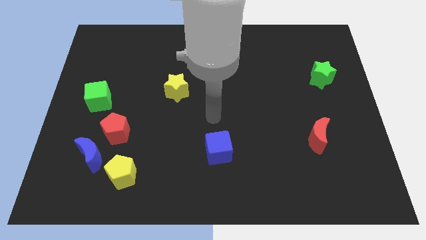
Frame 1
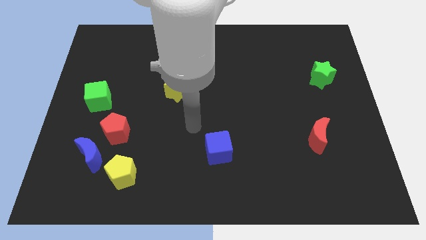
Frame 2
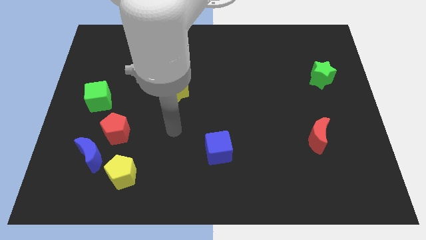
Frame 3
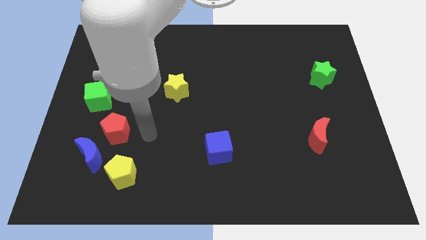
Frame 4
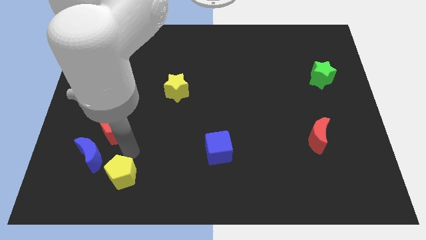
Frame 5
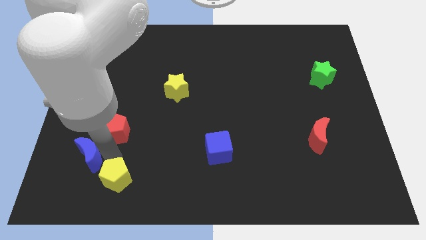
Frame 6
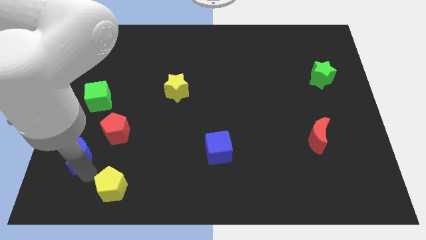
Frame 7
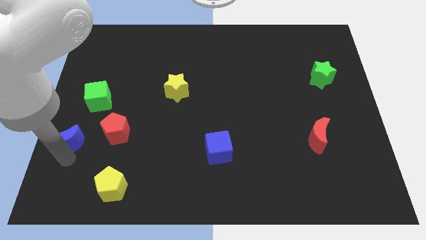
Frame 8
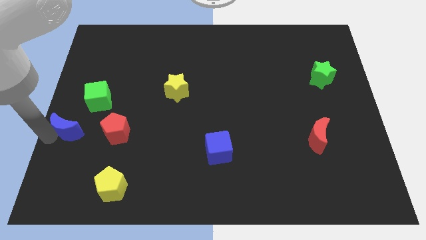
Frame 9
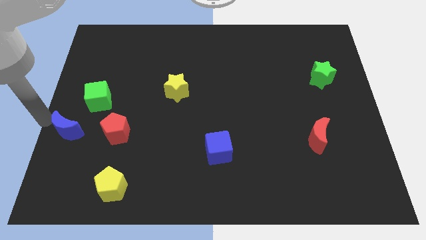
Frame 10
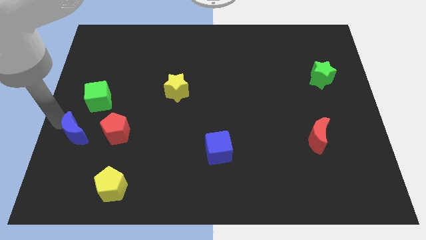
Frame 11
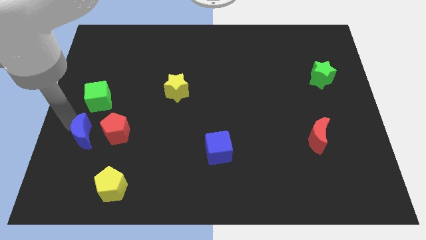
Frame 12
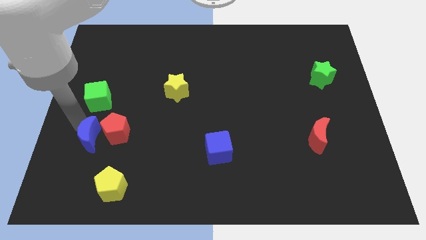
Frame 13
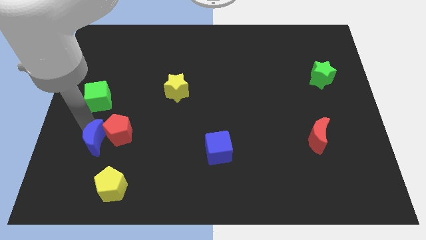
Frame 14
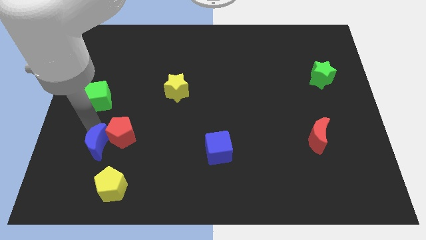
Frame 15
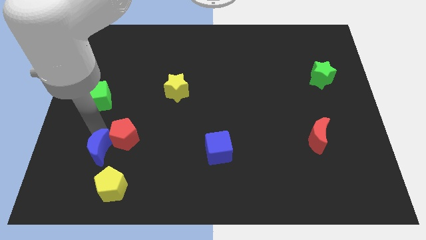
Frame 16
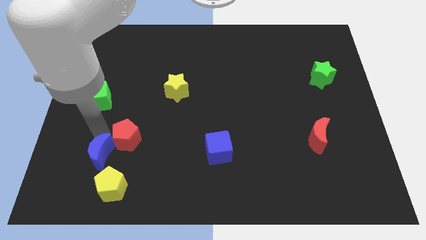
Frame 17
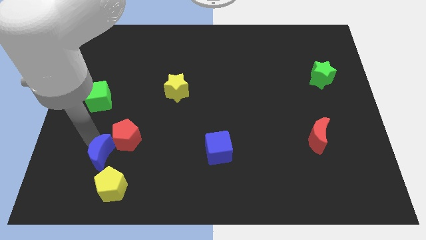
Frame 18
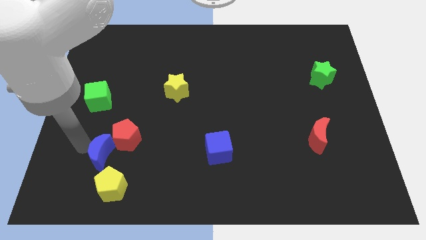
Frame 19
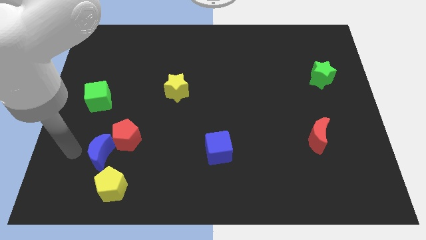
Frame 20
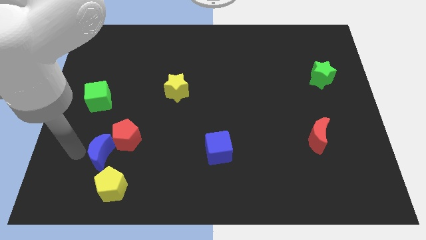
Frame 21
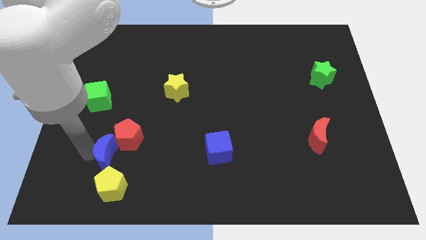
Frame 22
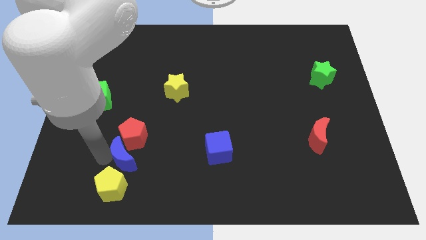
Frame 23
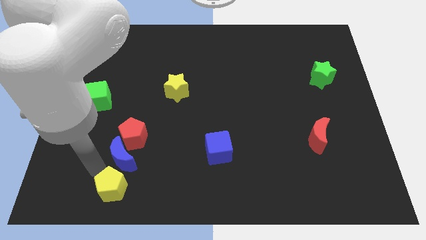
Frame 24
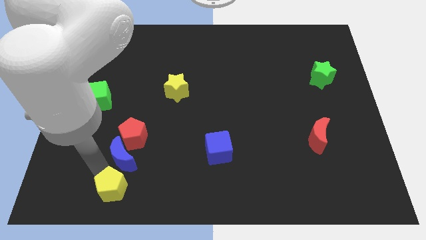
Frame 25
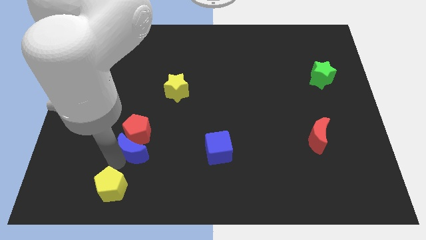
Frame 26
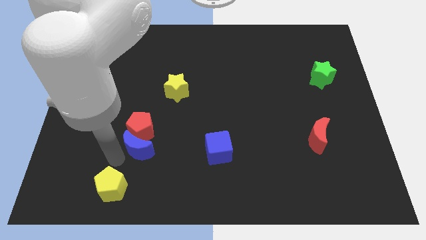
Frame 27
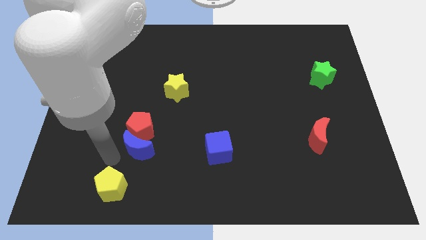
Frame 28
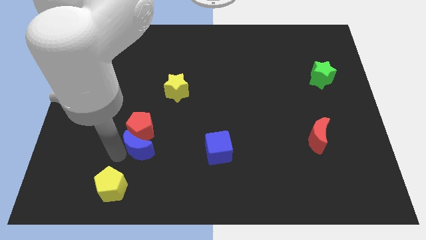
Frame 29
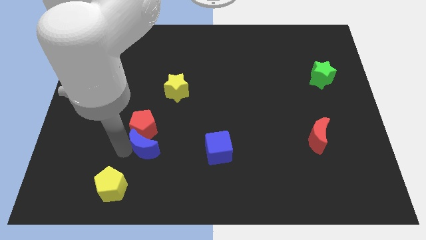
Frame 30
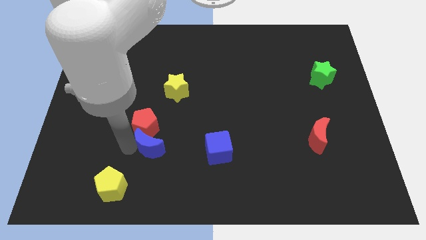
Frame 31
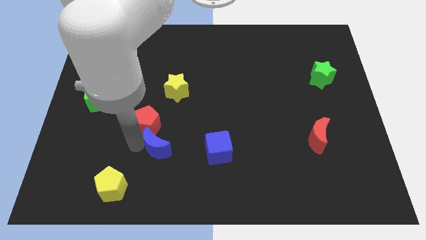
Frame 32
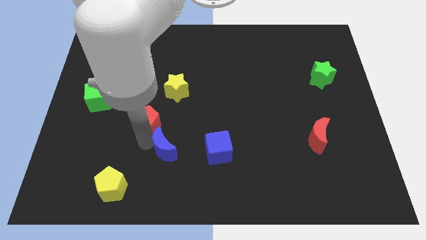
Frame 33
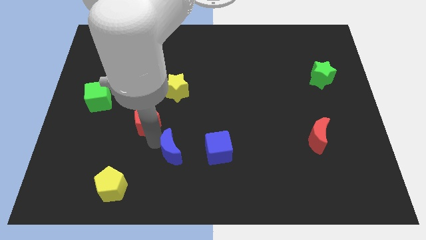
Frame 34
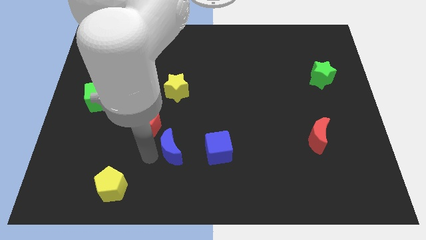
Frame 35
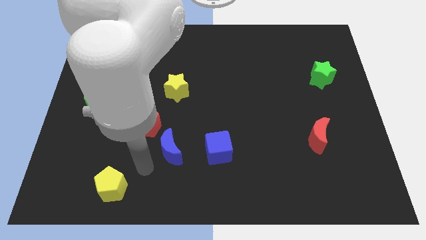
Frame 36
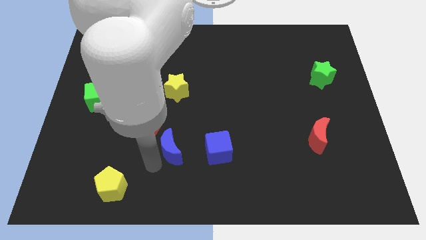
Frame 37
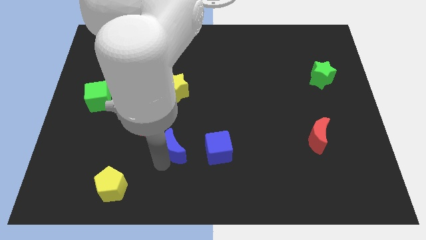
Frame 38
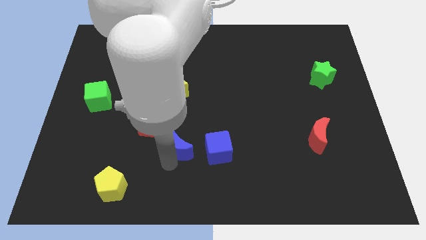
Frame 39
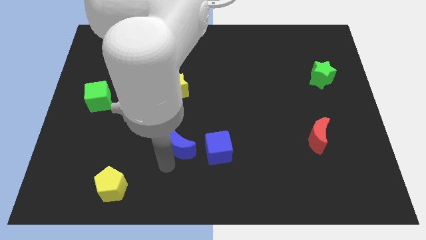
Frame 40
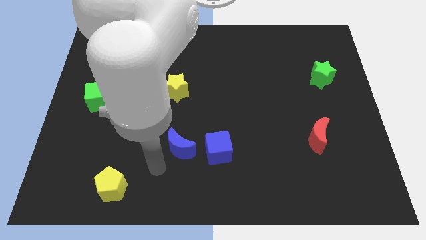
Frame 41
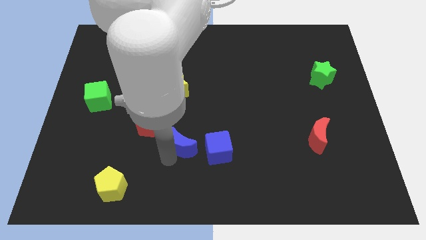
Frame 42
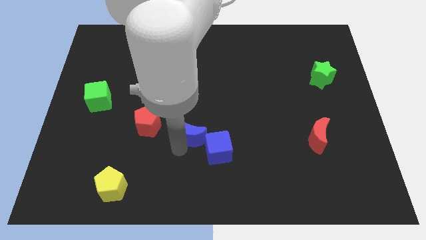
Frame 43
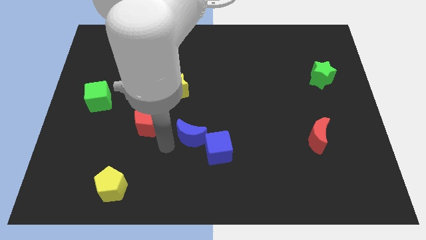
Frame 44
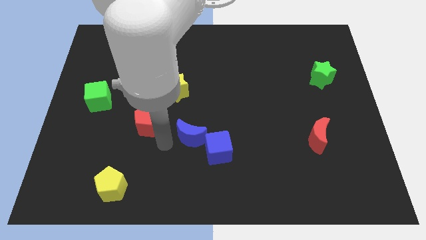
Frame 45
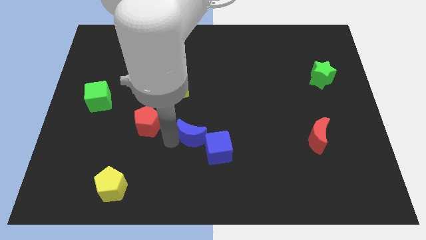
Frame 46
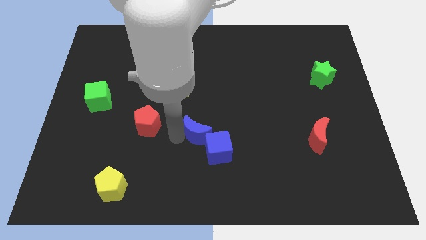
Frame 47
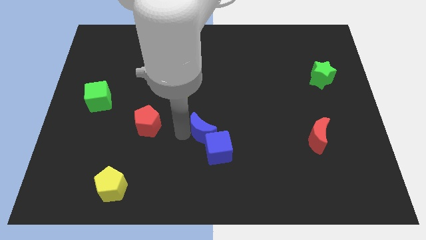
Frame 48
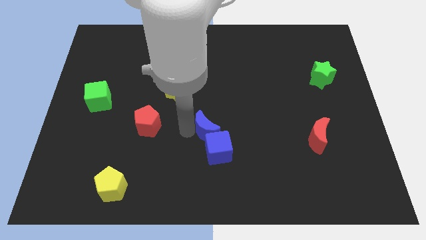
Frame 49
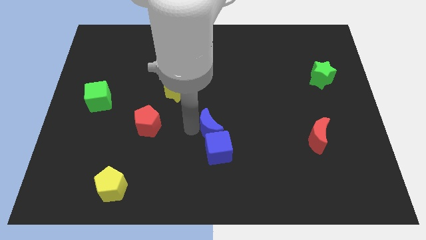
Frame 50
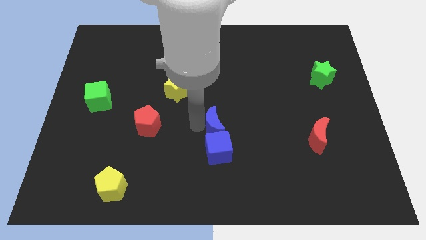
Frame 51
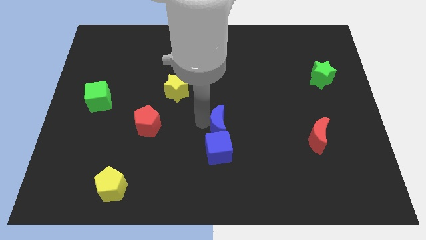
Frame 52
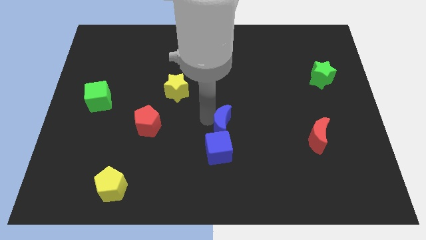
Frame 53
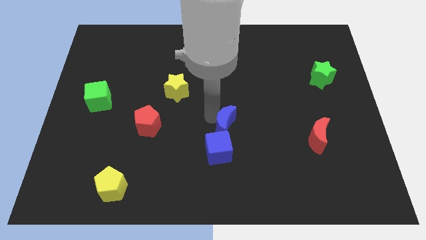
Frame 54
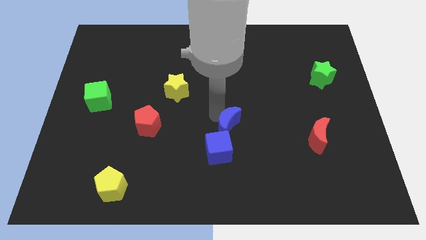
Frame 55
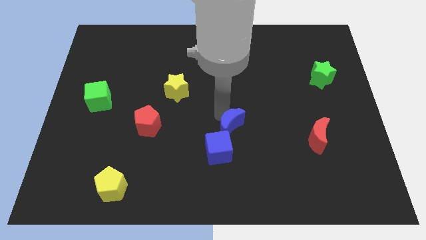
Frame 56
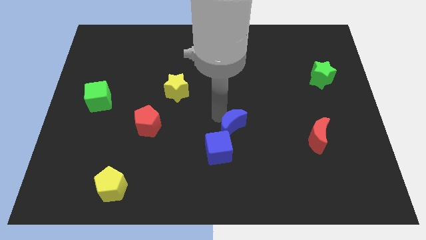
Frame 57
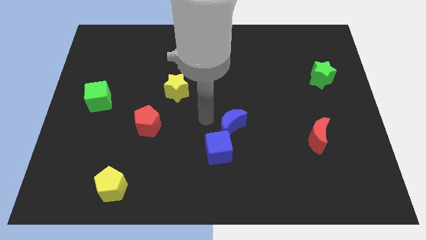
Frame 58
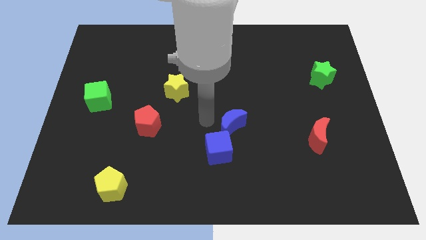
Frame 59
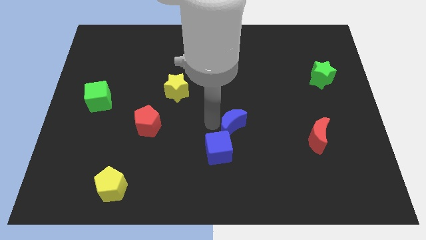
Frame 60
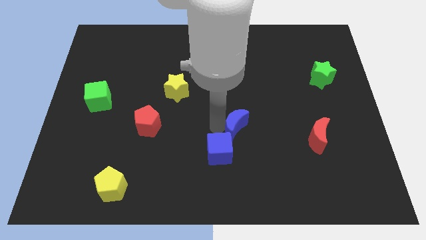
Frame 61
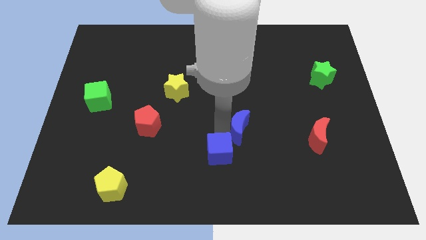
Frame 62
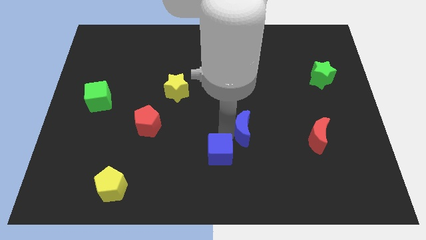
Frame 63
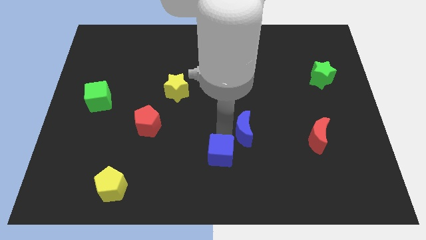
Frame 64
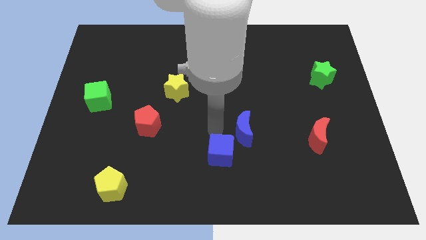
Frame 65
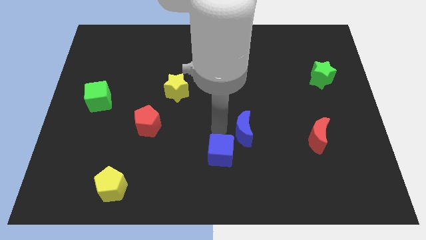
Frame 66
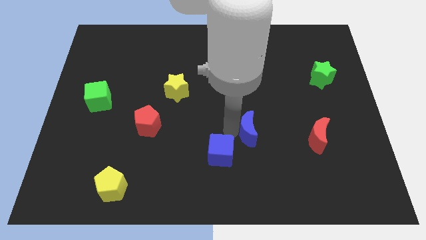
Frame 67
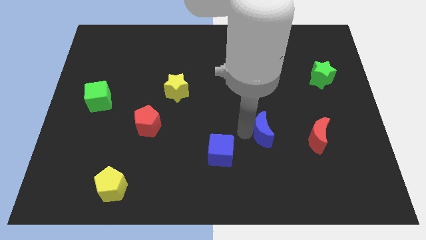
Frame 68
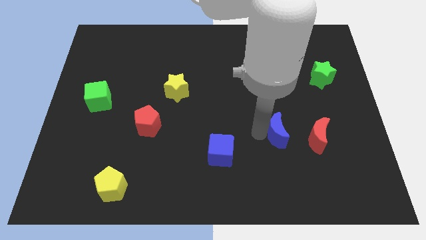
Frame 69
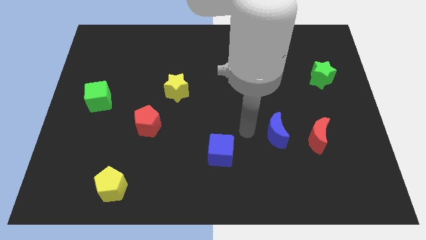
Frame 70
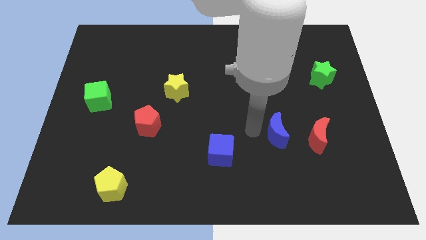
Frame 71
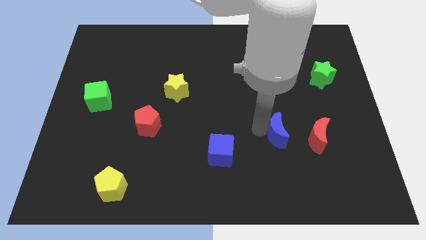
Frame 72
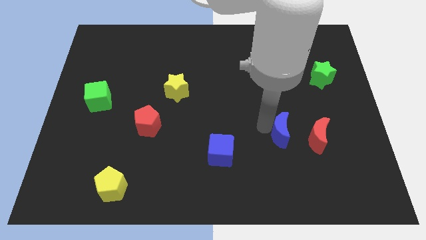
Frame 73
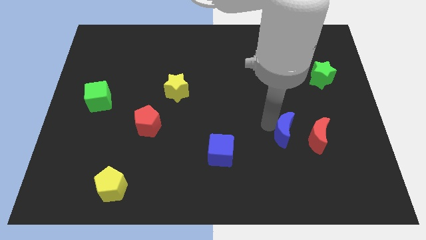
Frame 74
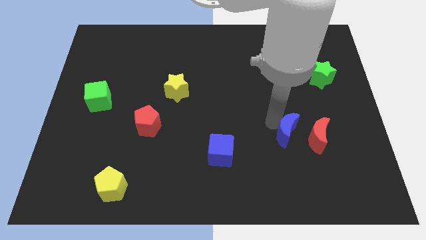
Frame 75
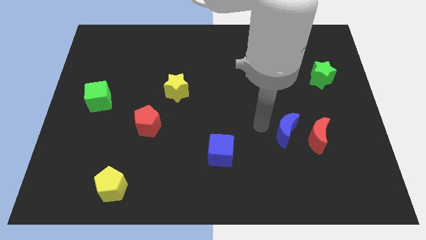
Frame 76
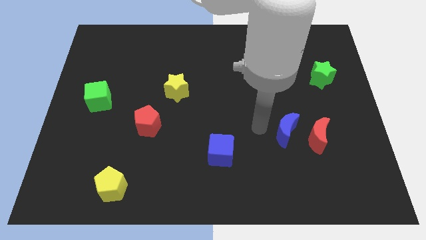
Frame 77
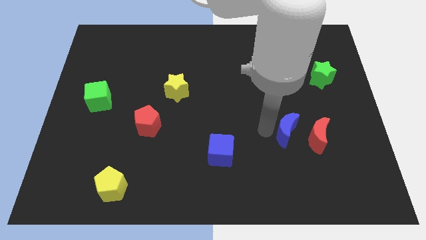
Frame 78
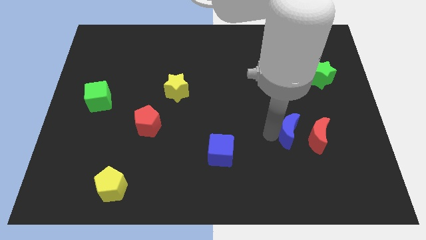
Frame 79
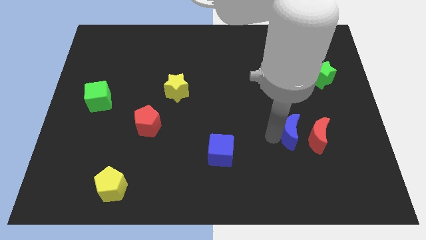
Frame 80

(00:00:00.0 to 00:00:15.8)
slide the blue moon towards the red moon

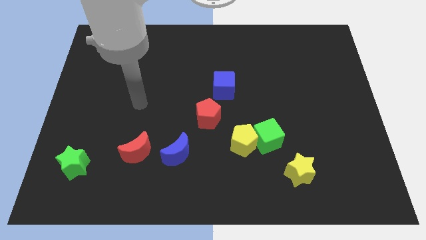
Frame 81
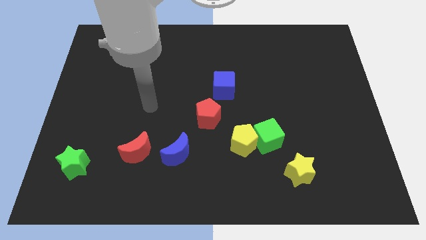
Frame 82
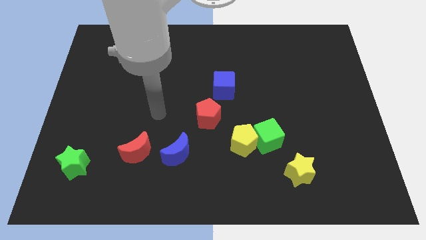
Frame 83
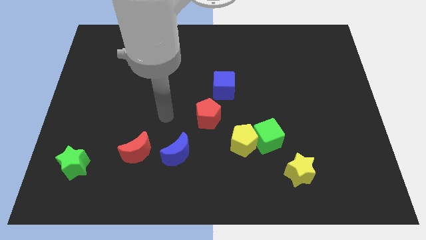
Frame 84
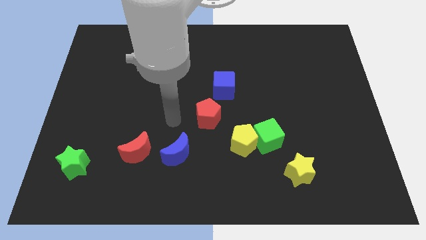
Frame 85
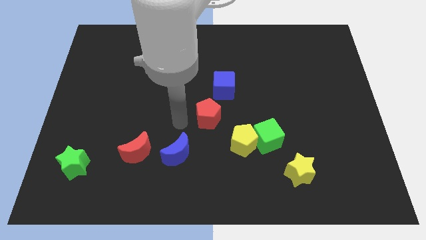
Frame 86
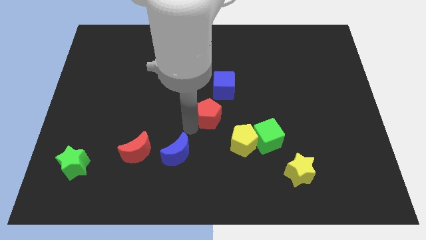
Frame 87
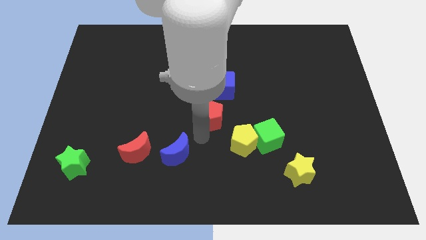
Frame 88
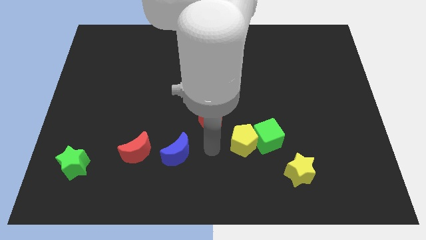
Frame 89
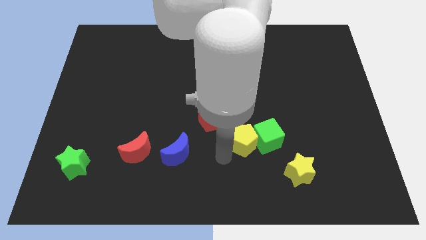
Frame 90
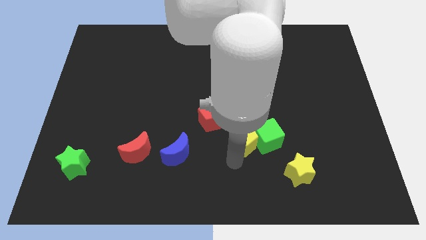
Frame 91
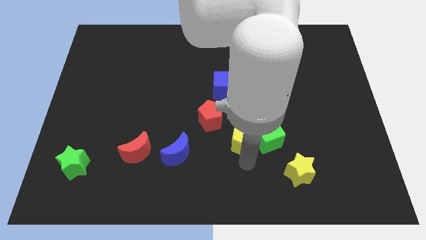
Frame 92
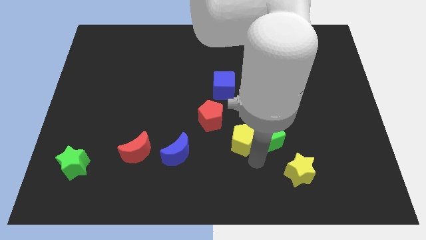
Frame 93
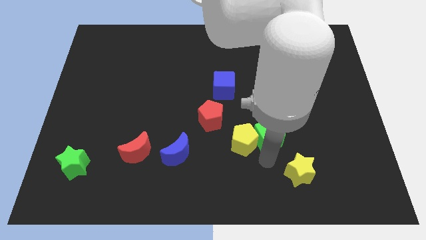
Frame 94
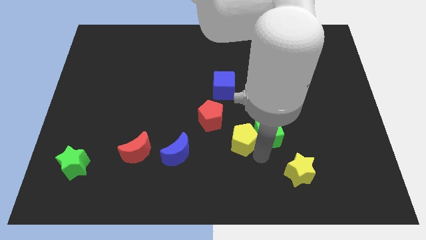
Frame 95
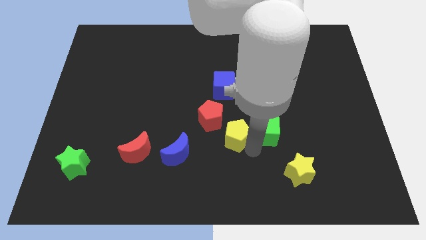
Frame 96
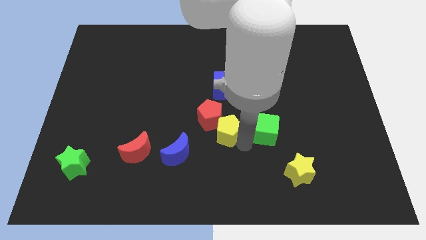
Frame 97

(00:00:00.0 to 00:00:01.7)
put the yellow pentagon towards the red pentagon
